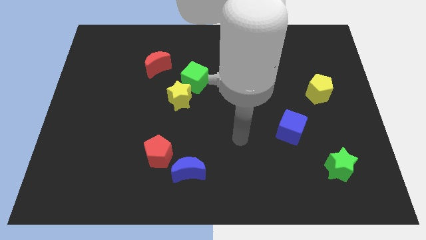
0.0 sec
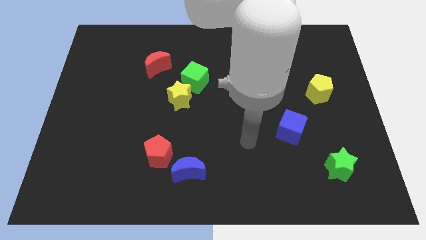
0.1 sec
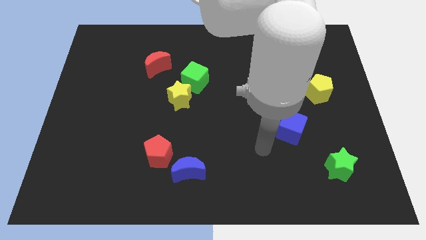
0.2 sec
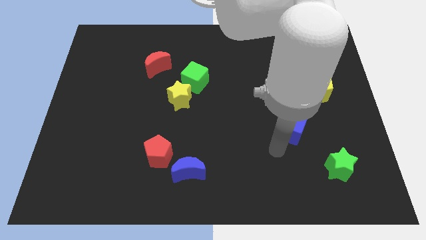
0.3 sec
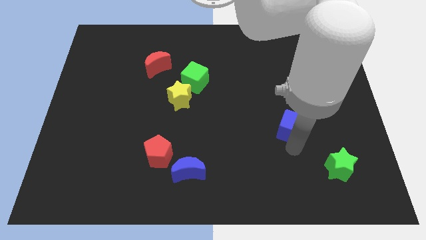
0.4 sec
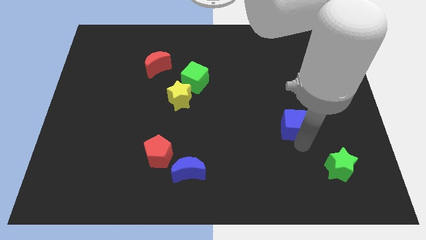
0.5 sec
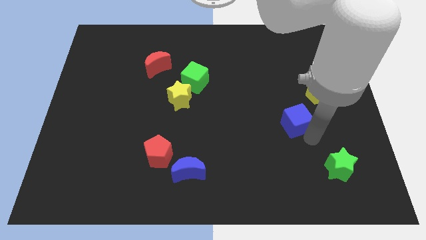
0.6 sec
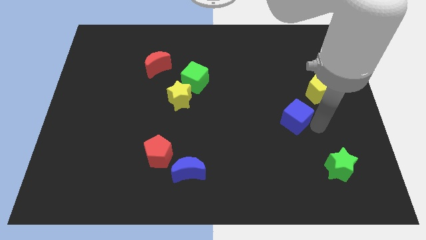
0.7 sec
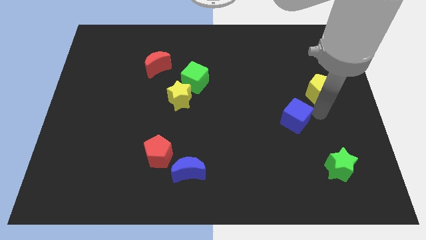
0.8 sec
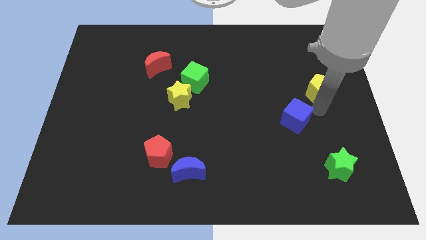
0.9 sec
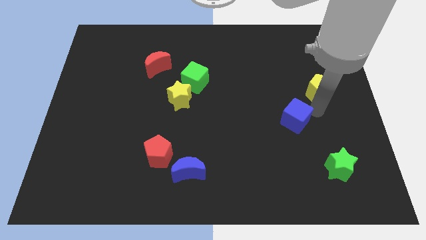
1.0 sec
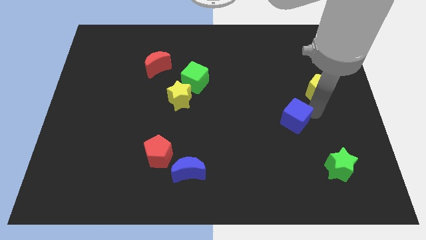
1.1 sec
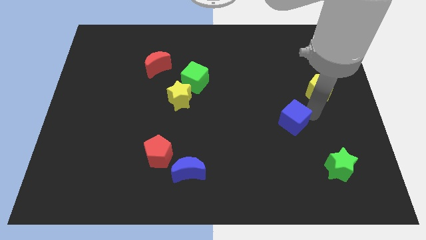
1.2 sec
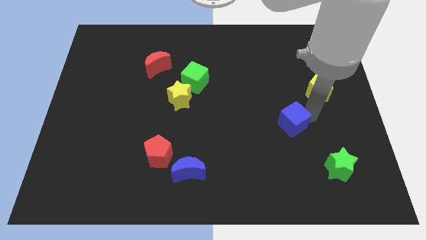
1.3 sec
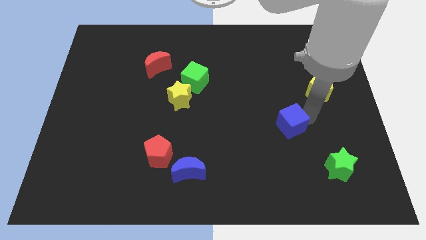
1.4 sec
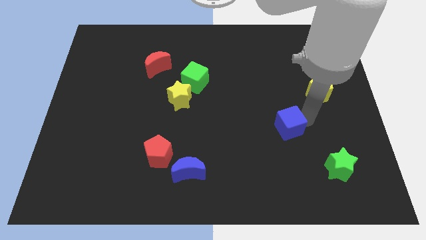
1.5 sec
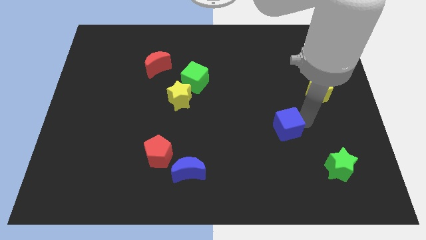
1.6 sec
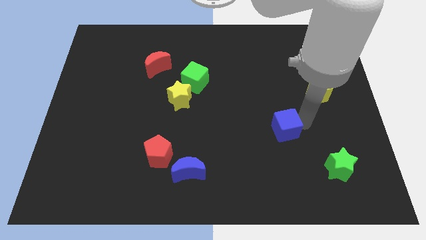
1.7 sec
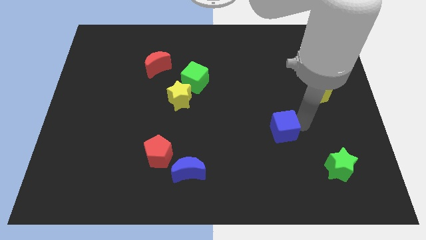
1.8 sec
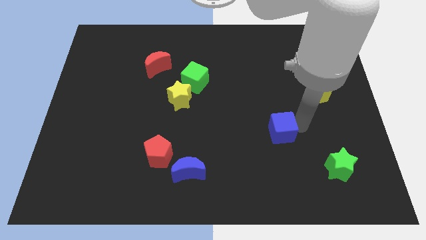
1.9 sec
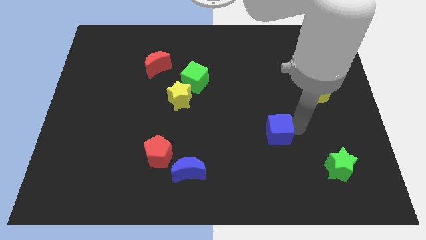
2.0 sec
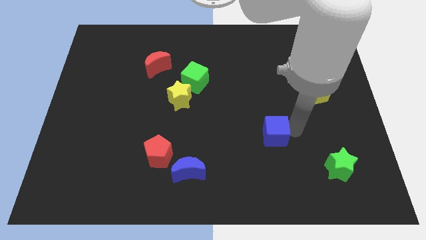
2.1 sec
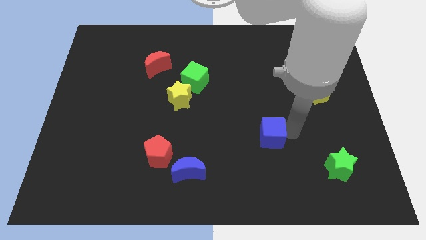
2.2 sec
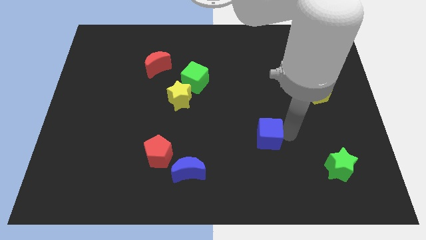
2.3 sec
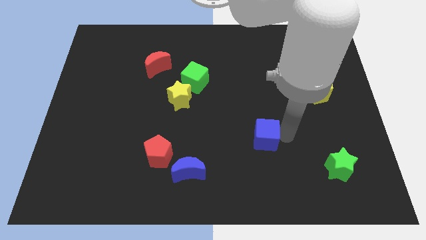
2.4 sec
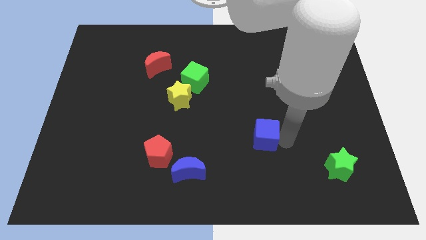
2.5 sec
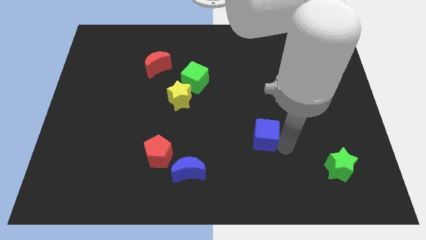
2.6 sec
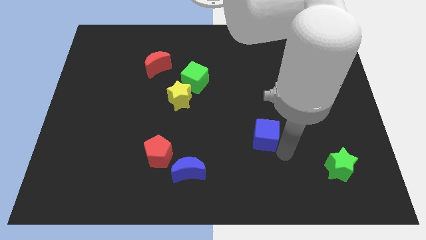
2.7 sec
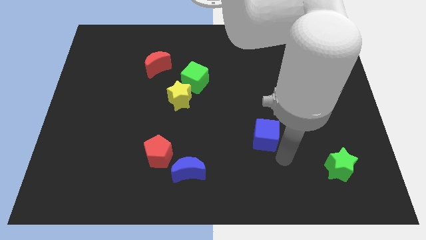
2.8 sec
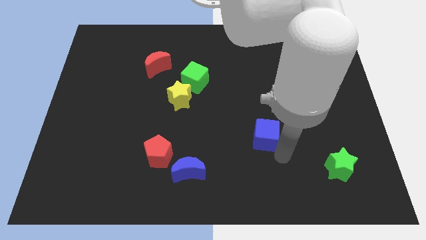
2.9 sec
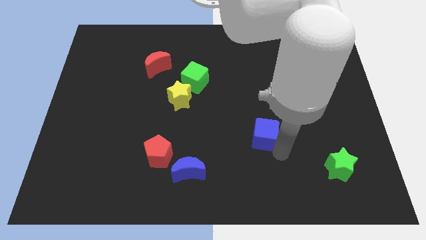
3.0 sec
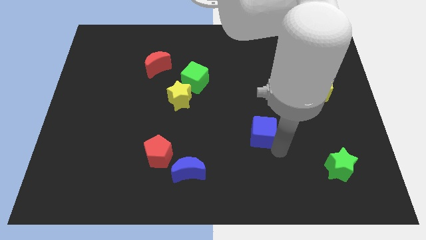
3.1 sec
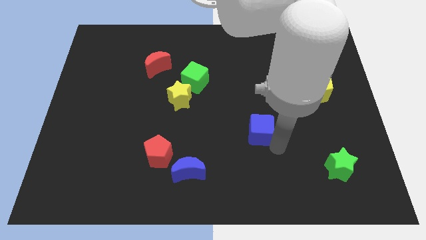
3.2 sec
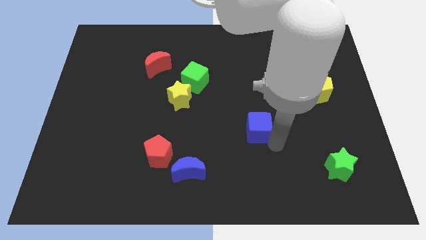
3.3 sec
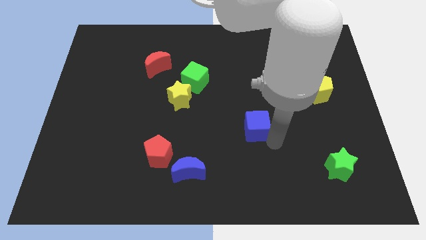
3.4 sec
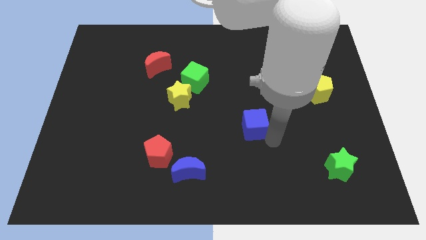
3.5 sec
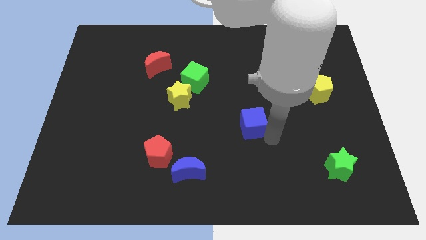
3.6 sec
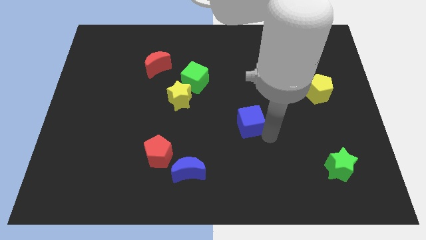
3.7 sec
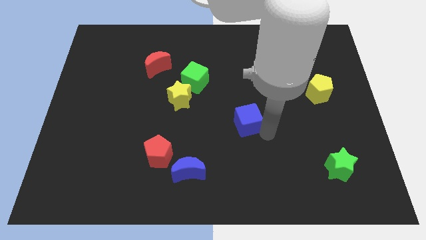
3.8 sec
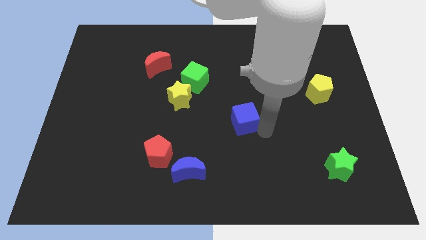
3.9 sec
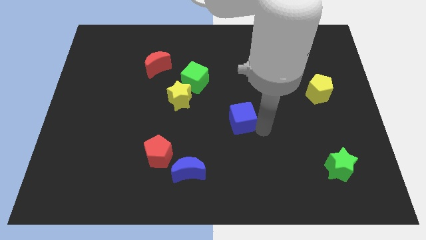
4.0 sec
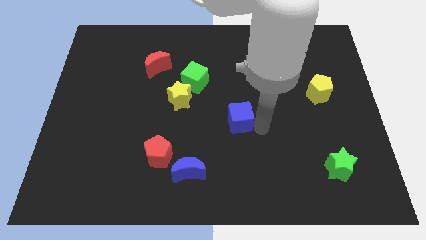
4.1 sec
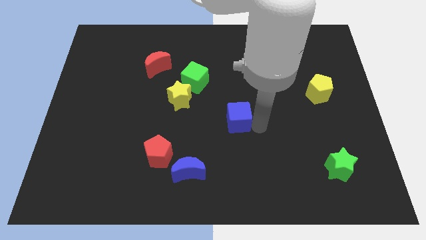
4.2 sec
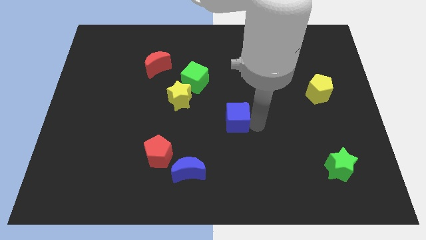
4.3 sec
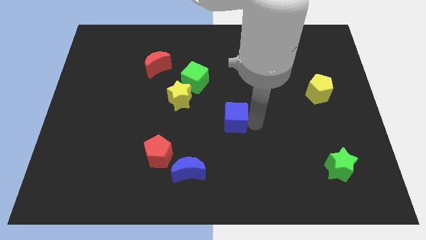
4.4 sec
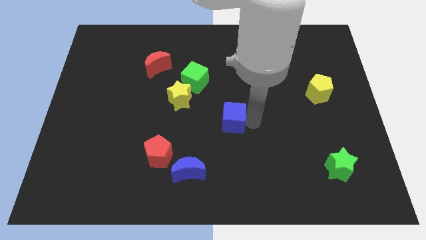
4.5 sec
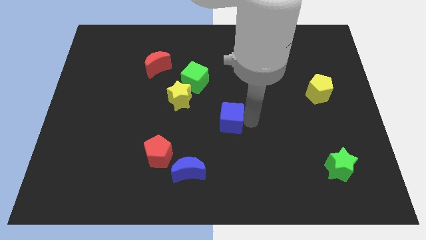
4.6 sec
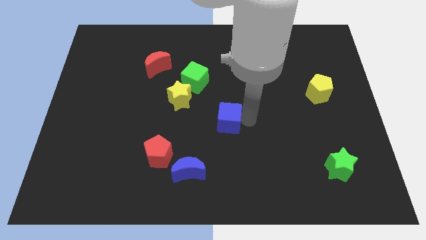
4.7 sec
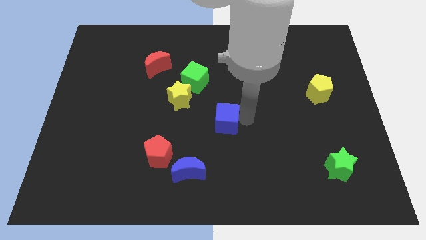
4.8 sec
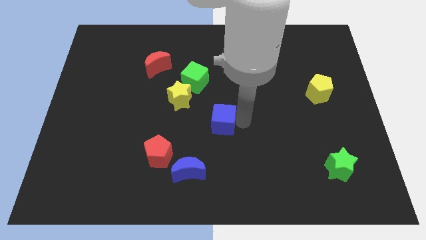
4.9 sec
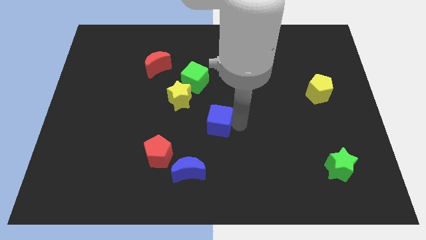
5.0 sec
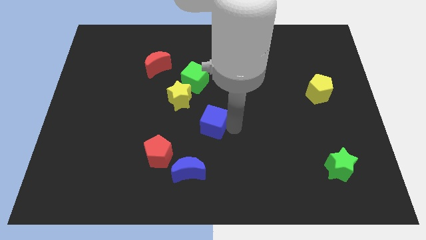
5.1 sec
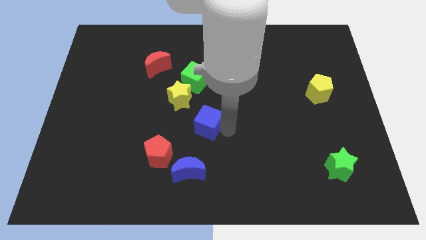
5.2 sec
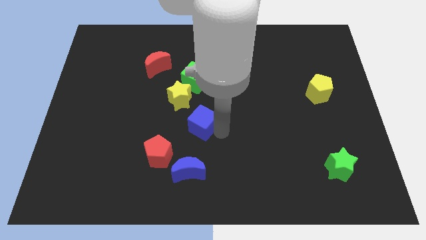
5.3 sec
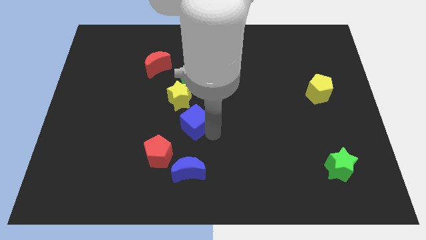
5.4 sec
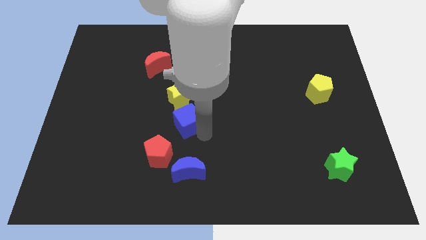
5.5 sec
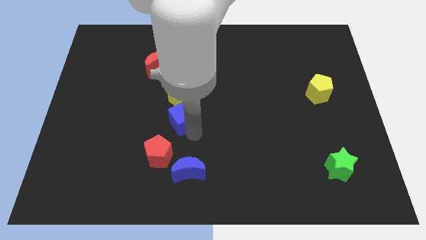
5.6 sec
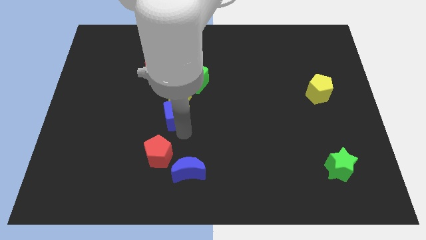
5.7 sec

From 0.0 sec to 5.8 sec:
move the blue cube to the bottom left of the yellow star

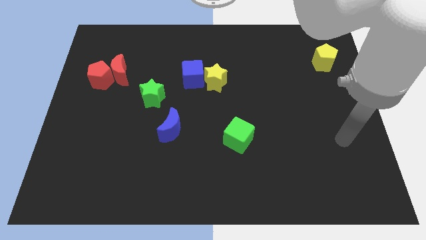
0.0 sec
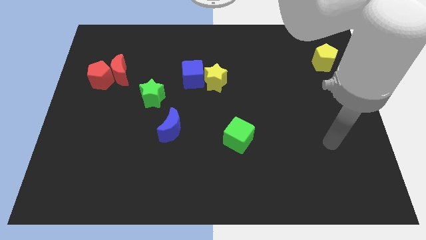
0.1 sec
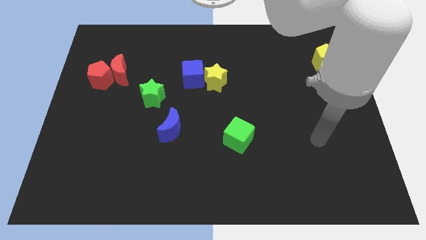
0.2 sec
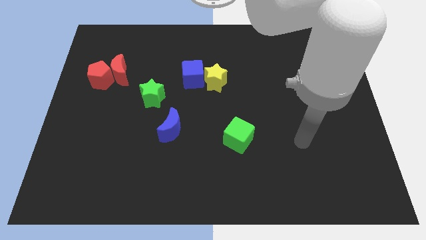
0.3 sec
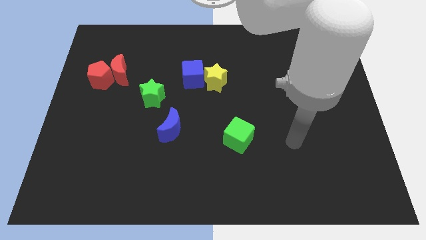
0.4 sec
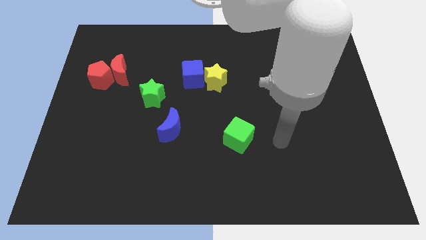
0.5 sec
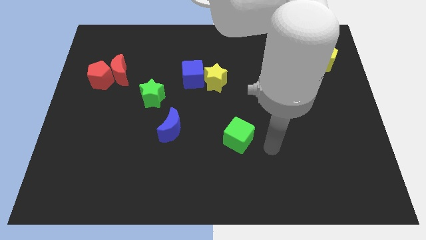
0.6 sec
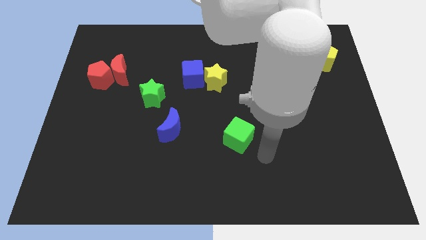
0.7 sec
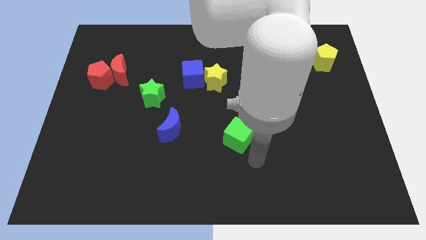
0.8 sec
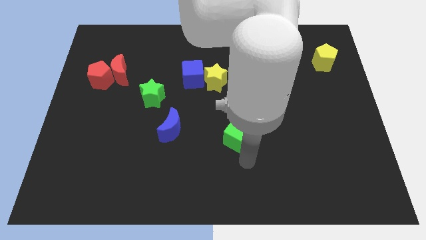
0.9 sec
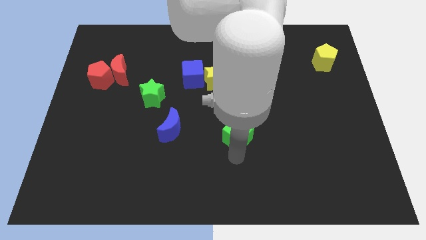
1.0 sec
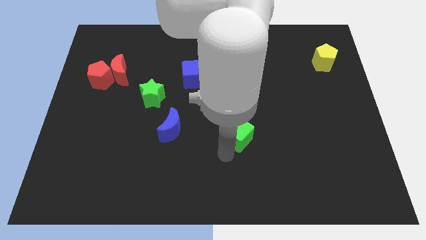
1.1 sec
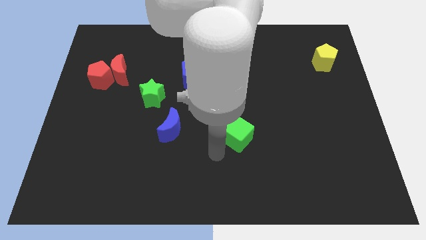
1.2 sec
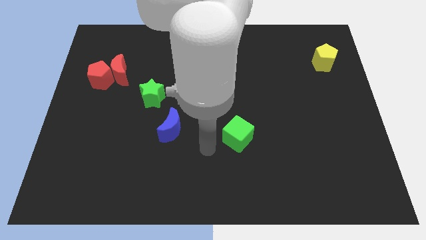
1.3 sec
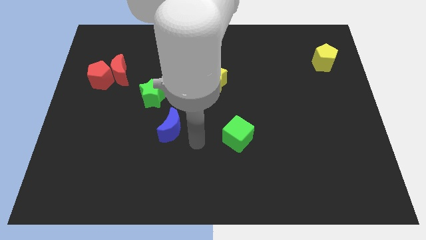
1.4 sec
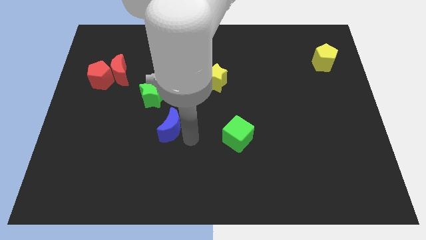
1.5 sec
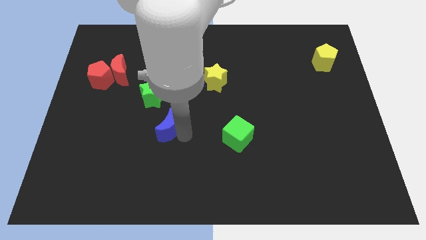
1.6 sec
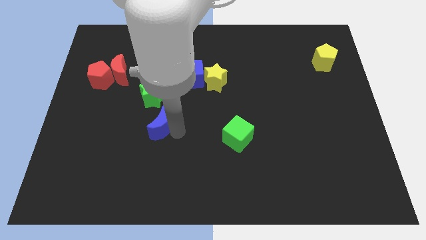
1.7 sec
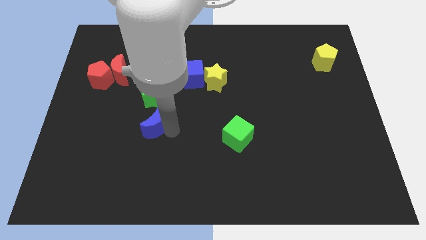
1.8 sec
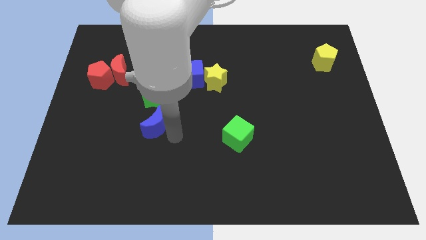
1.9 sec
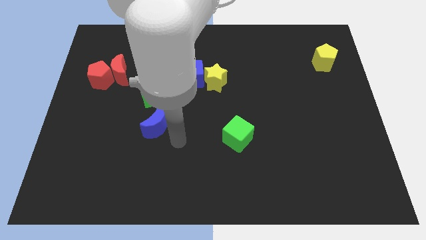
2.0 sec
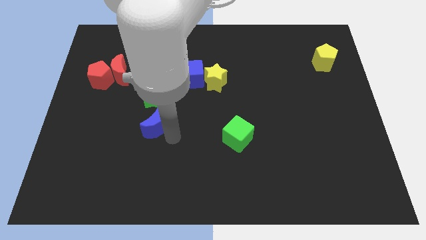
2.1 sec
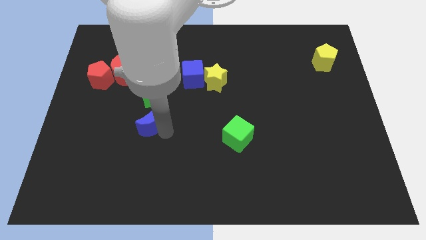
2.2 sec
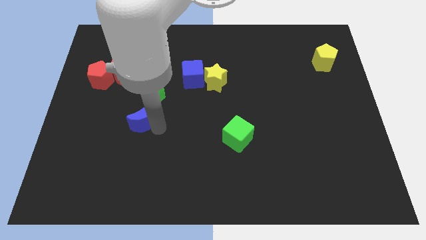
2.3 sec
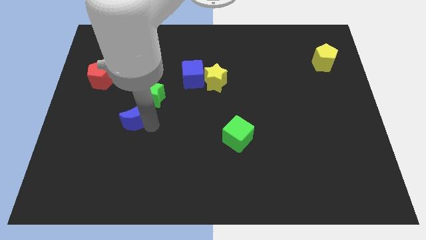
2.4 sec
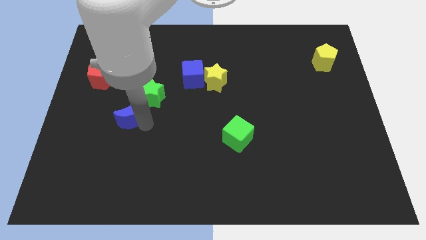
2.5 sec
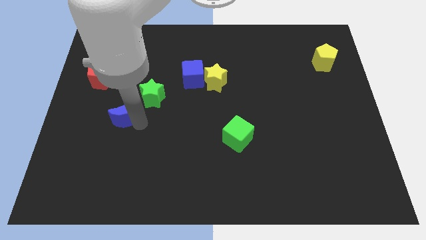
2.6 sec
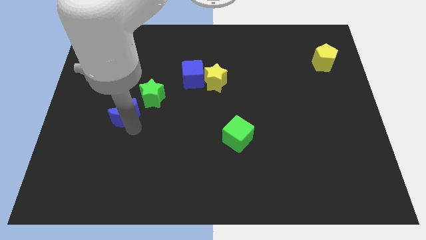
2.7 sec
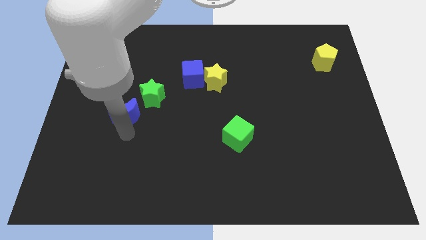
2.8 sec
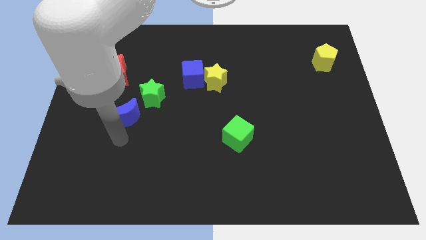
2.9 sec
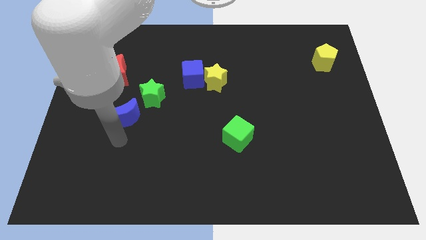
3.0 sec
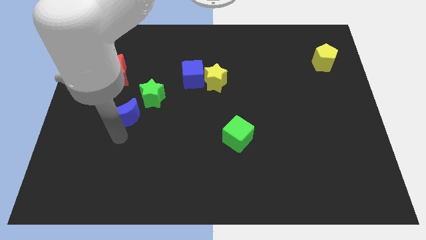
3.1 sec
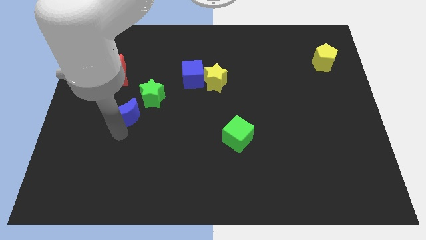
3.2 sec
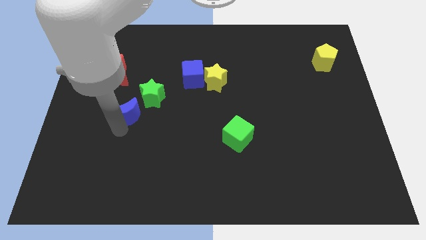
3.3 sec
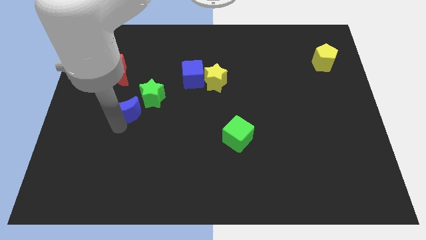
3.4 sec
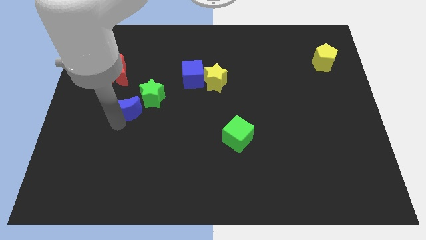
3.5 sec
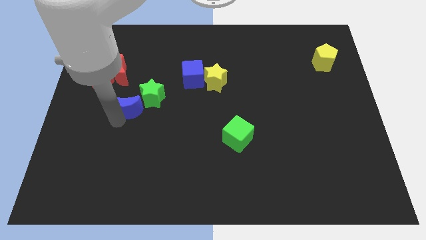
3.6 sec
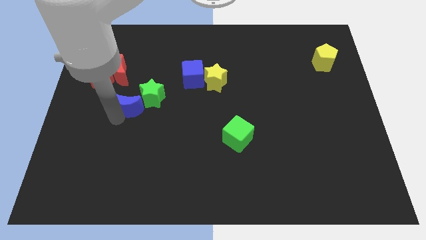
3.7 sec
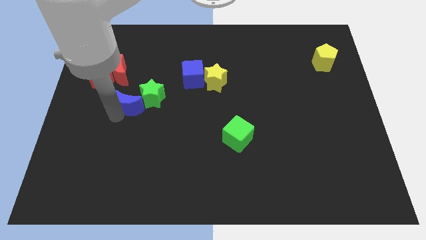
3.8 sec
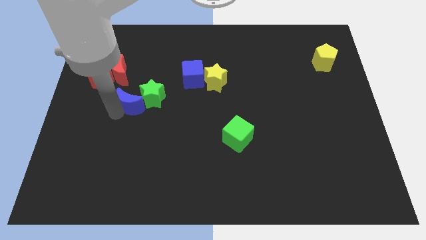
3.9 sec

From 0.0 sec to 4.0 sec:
slide the blue moon diagonally down and to the right of the red moon
